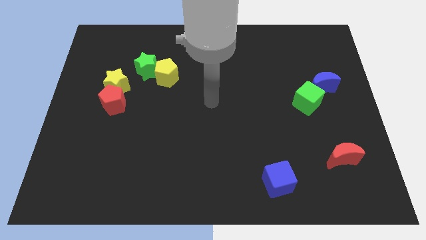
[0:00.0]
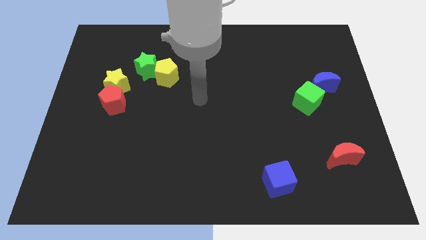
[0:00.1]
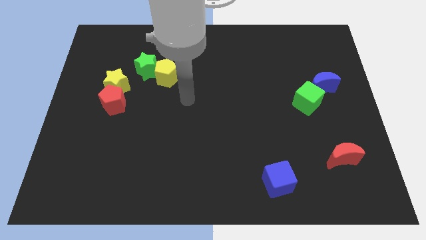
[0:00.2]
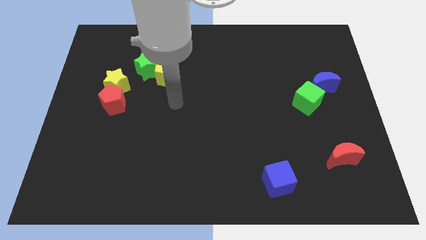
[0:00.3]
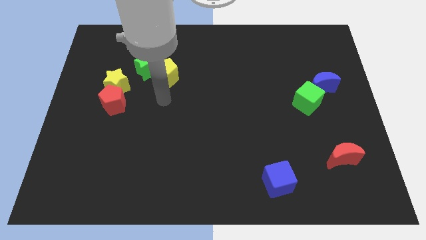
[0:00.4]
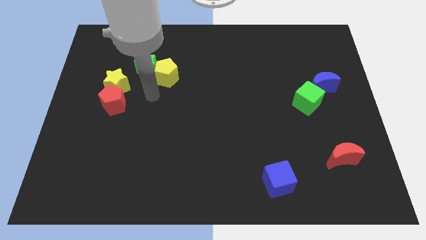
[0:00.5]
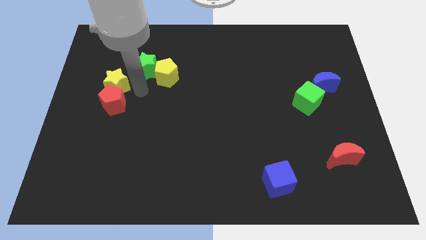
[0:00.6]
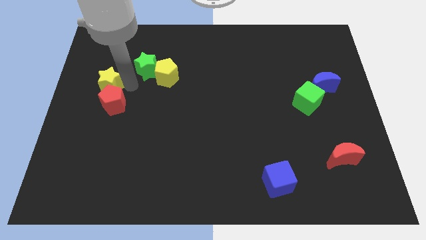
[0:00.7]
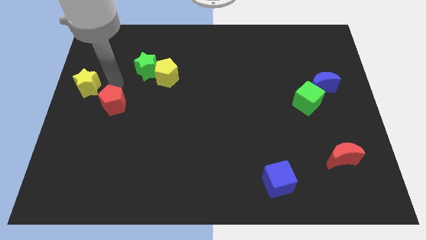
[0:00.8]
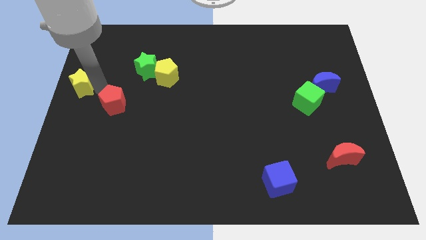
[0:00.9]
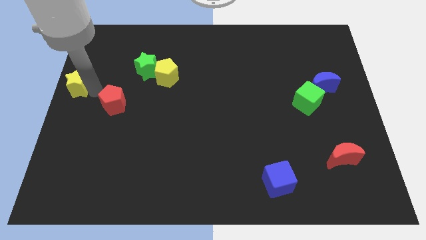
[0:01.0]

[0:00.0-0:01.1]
move the red pentagon away from the yellow star

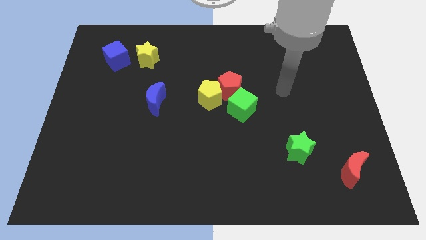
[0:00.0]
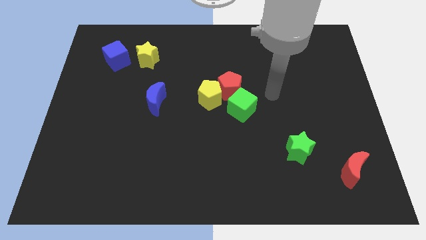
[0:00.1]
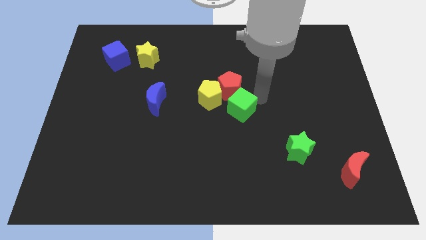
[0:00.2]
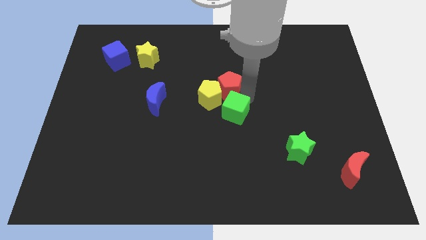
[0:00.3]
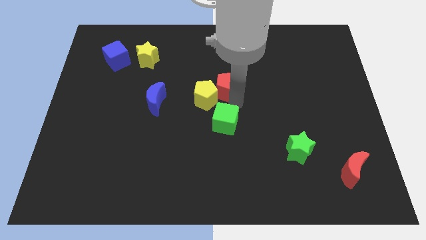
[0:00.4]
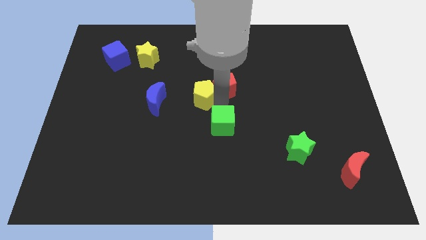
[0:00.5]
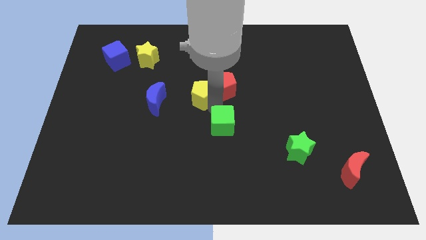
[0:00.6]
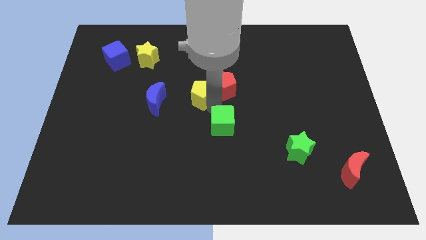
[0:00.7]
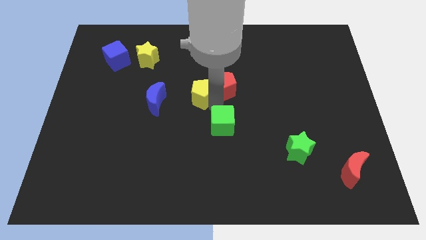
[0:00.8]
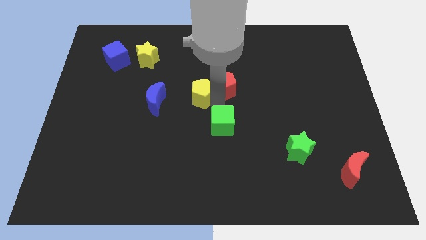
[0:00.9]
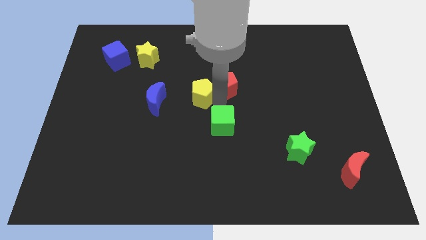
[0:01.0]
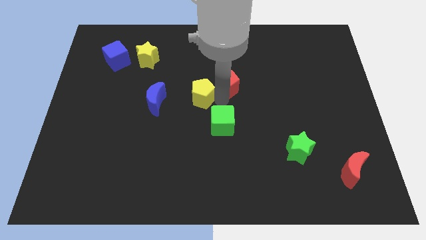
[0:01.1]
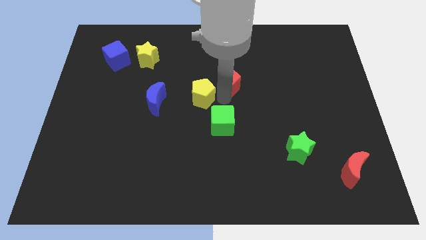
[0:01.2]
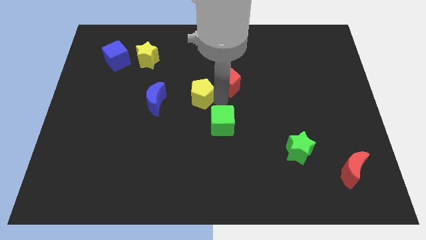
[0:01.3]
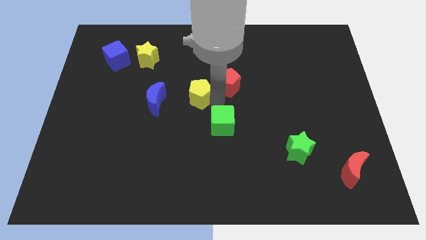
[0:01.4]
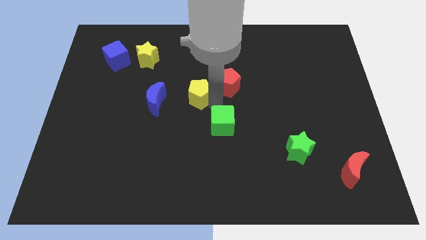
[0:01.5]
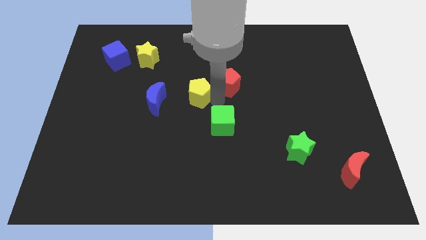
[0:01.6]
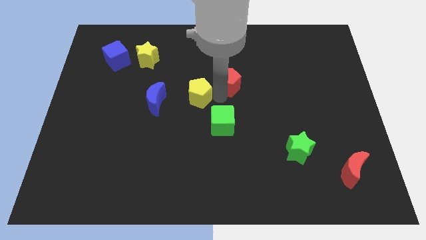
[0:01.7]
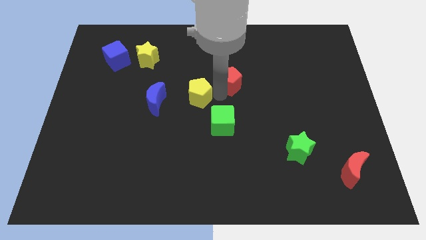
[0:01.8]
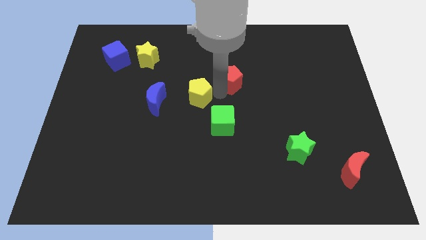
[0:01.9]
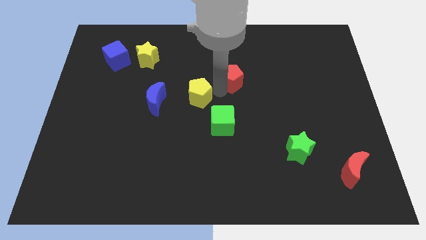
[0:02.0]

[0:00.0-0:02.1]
move the red pentagon away from the yellow pentagon and green cube

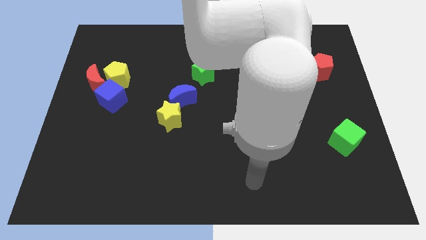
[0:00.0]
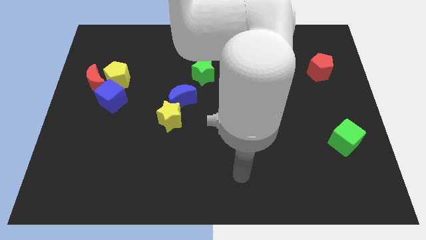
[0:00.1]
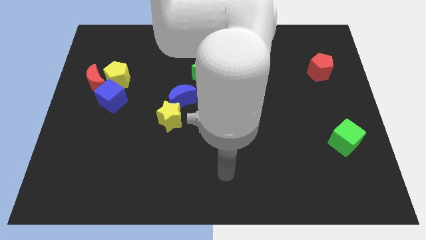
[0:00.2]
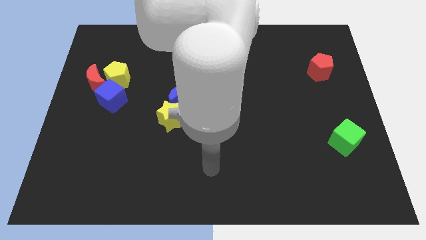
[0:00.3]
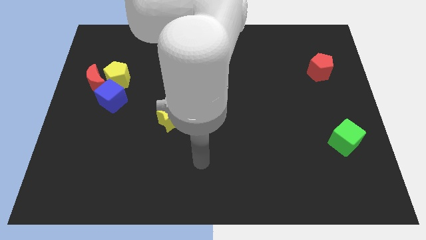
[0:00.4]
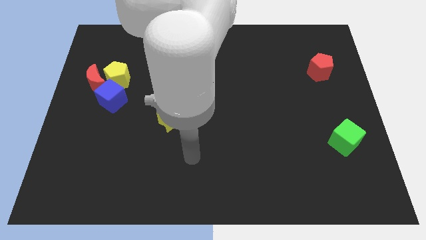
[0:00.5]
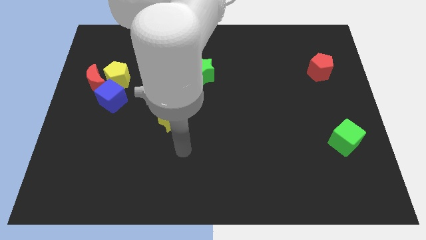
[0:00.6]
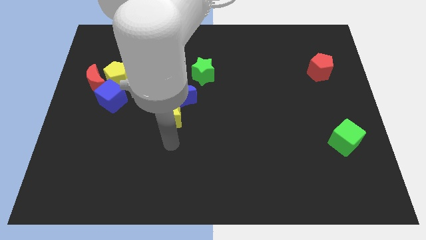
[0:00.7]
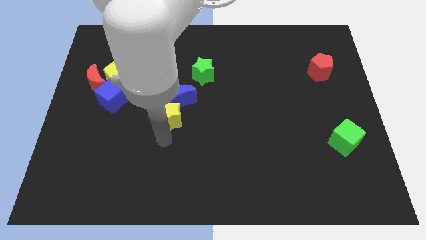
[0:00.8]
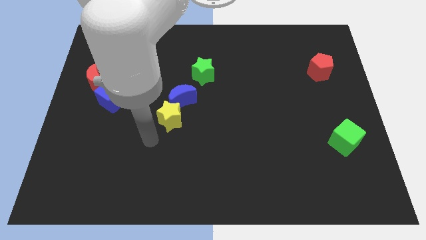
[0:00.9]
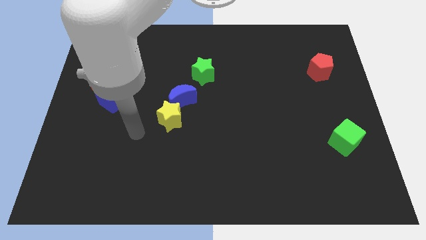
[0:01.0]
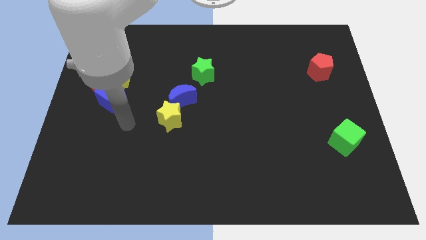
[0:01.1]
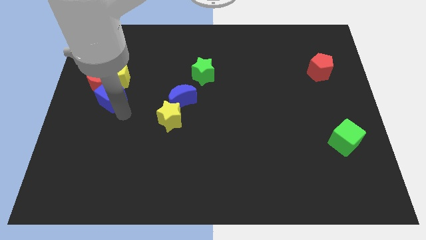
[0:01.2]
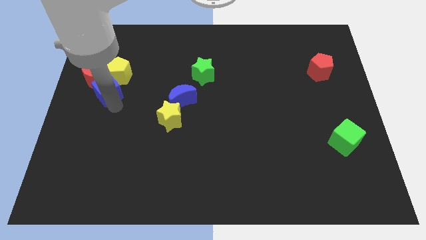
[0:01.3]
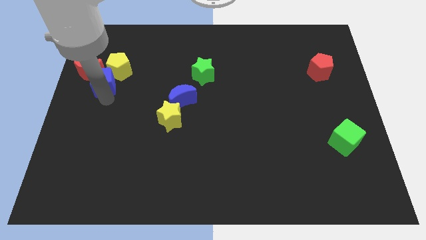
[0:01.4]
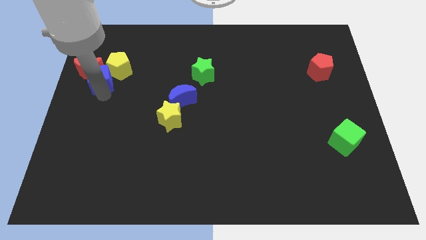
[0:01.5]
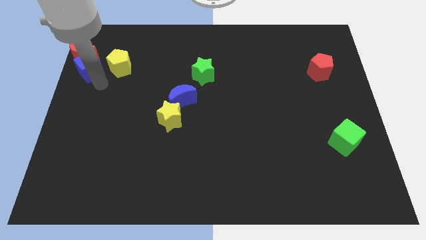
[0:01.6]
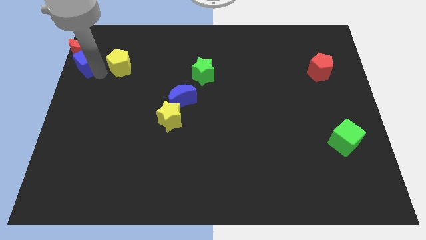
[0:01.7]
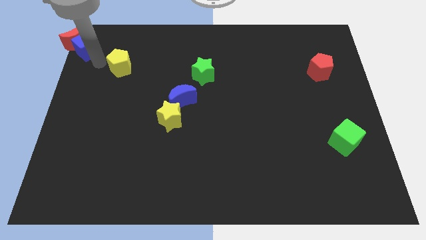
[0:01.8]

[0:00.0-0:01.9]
move the yellow pentagon away from the red moon and blue cube

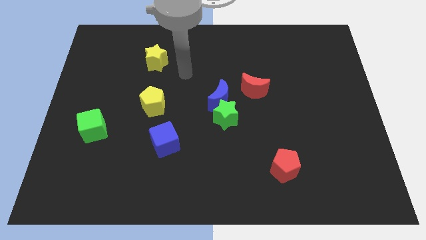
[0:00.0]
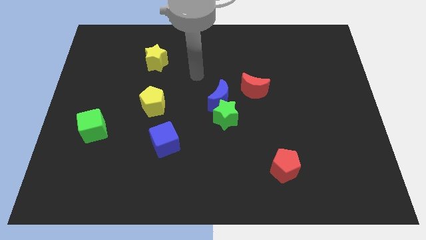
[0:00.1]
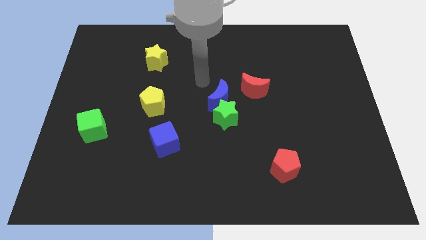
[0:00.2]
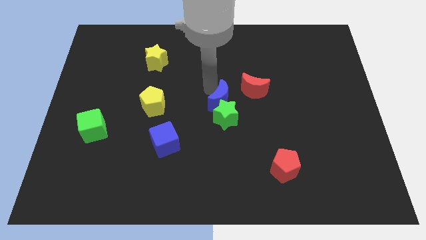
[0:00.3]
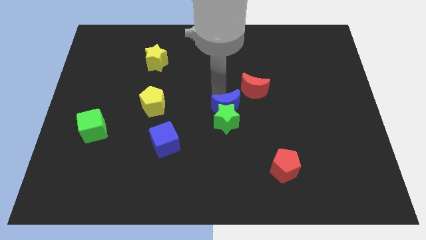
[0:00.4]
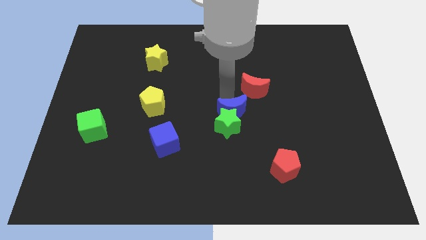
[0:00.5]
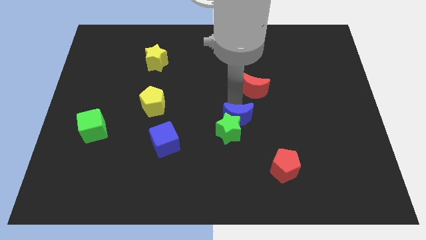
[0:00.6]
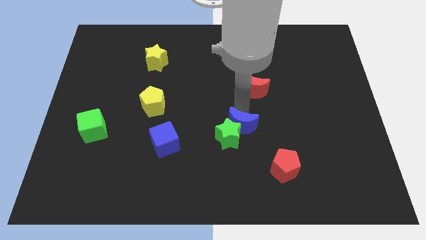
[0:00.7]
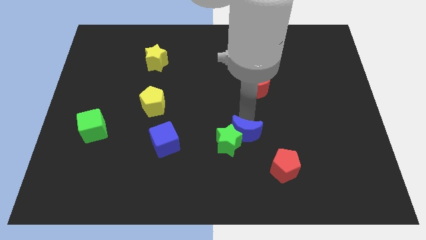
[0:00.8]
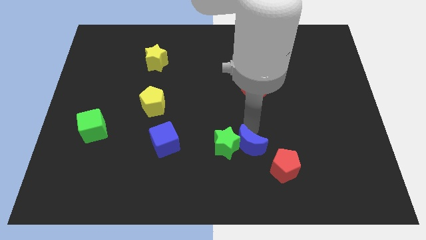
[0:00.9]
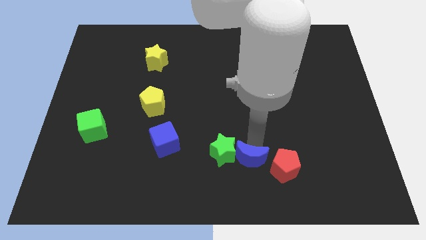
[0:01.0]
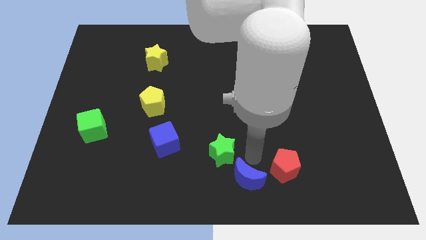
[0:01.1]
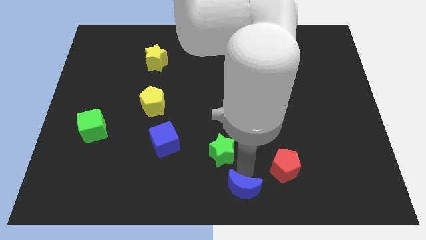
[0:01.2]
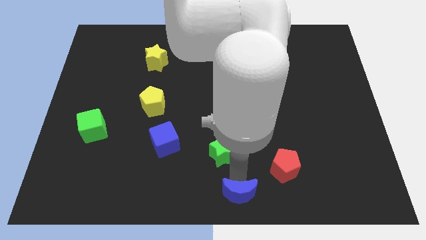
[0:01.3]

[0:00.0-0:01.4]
move the green star away from the blue moon

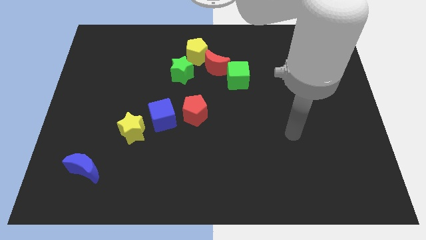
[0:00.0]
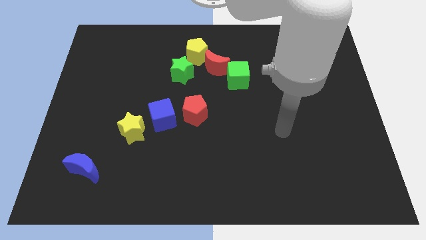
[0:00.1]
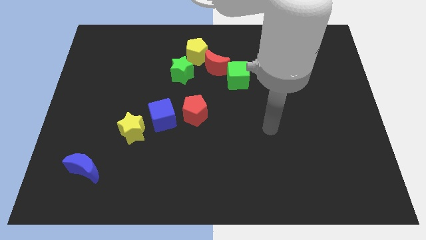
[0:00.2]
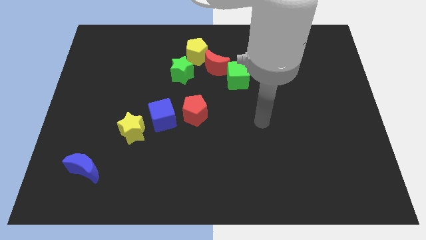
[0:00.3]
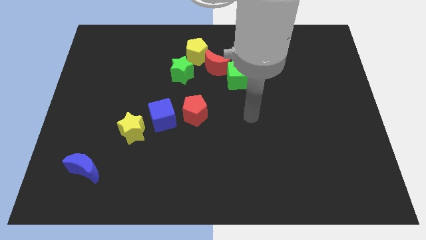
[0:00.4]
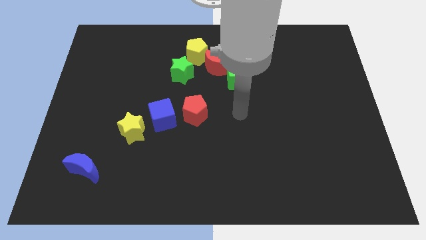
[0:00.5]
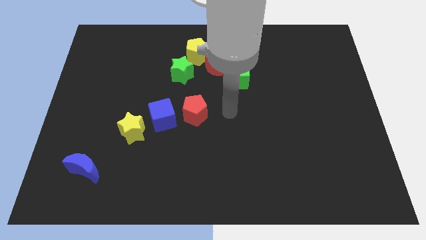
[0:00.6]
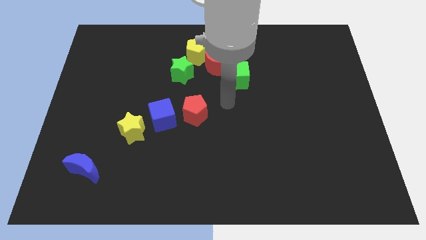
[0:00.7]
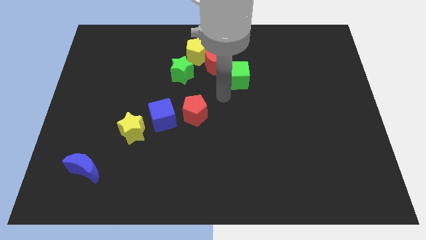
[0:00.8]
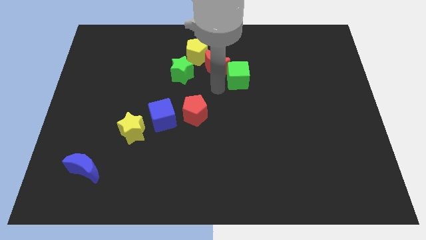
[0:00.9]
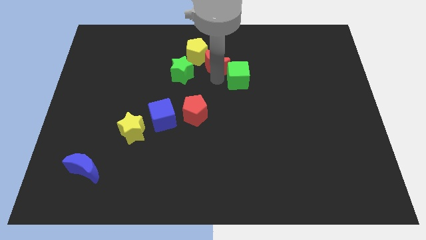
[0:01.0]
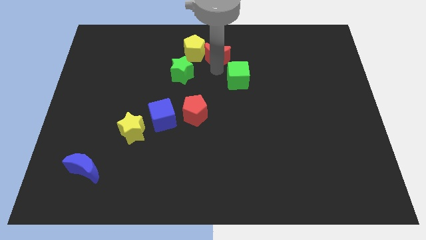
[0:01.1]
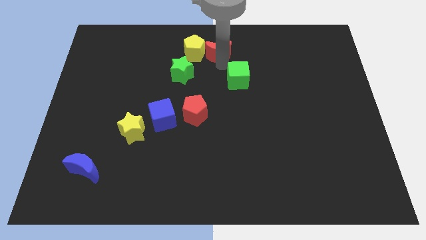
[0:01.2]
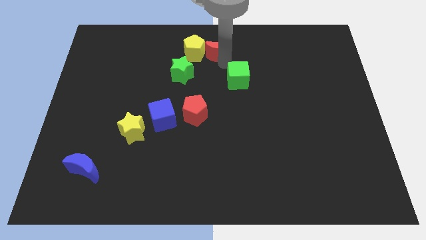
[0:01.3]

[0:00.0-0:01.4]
move the green cube away from the red moon

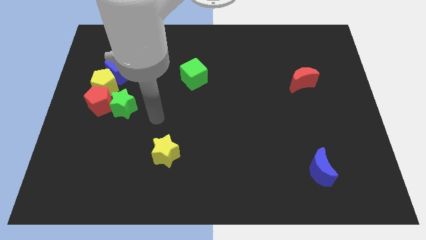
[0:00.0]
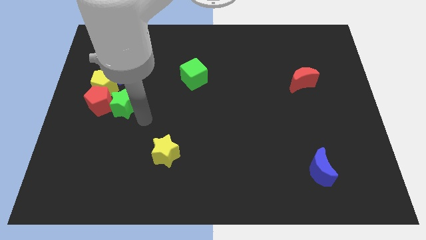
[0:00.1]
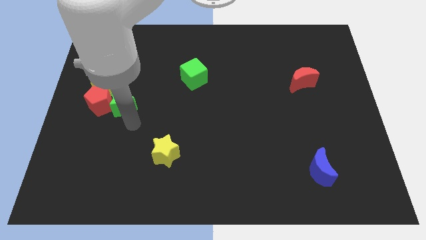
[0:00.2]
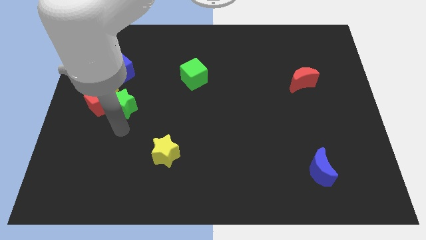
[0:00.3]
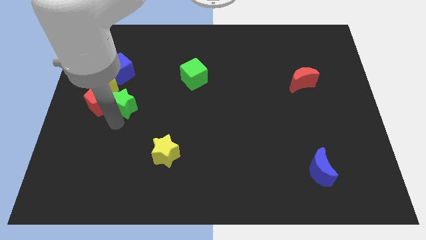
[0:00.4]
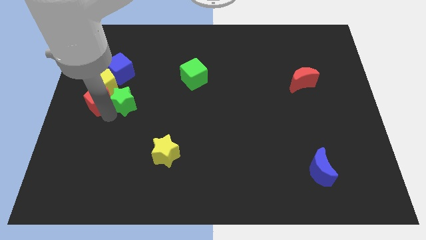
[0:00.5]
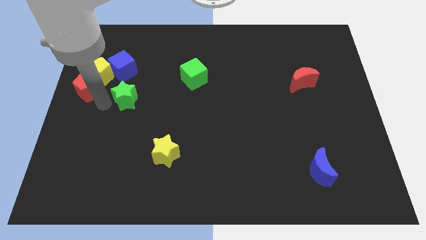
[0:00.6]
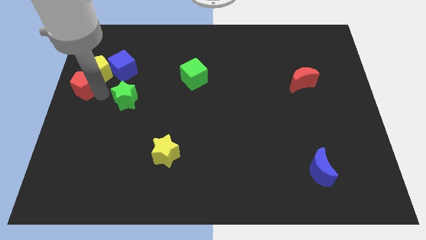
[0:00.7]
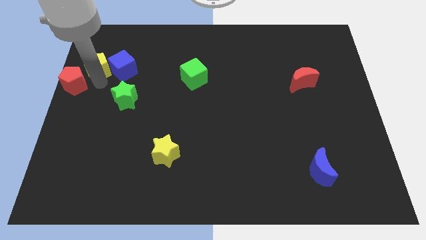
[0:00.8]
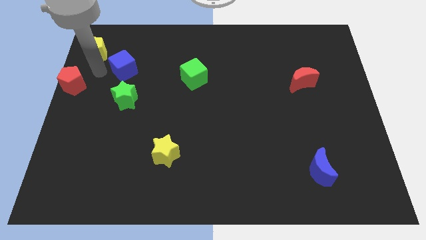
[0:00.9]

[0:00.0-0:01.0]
separate the blue cube from the yellow pentagon

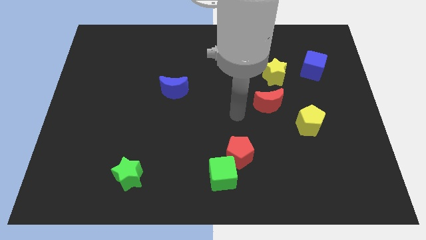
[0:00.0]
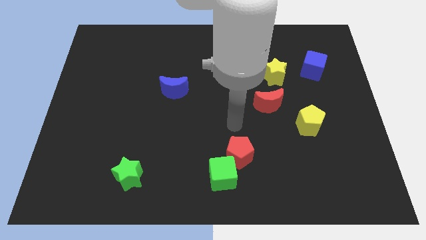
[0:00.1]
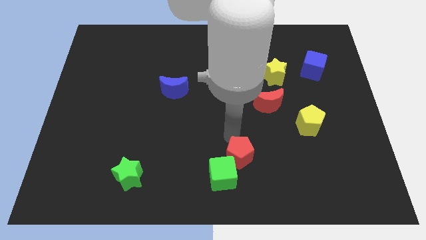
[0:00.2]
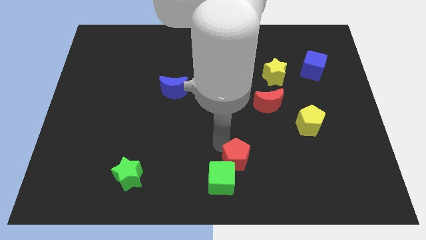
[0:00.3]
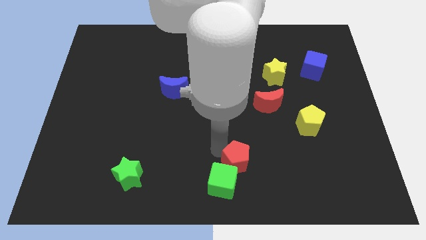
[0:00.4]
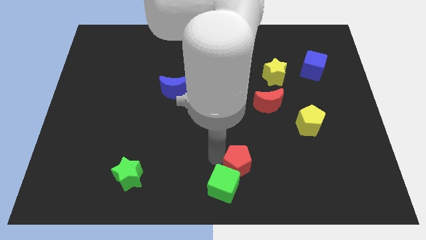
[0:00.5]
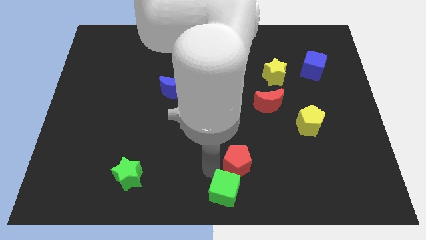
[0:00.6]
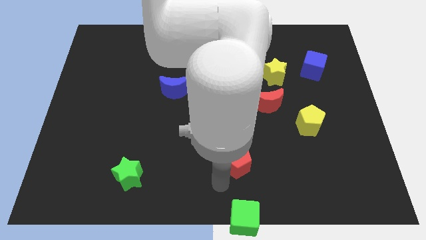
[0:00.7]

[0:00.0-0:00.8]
pull the red pentagon apart from the green cube
